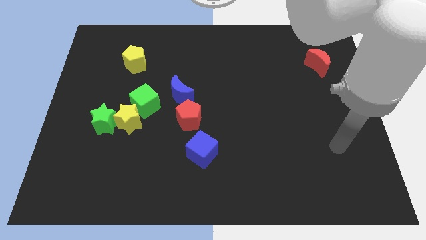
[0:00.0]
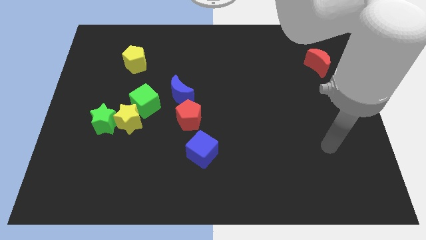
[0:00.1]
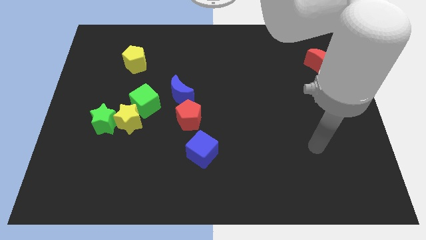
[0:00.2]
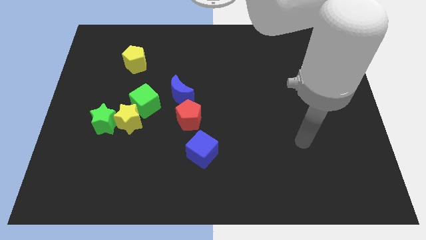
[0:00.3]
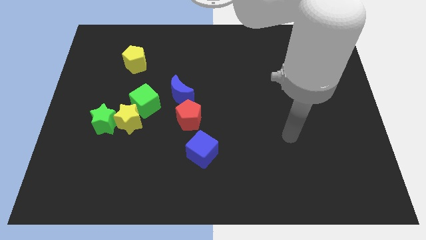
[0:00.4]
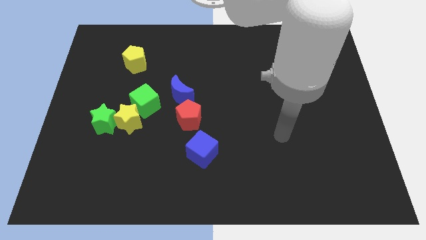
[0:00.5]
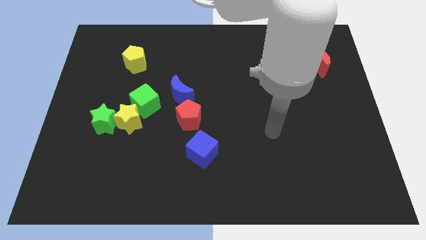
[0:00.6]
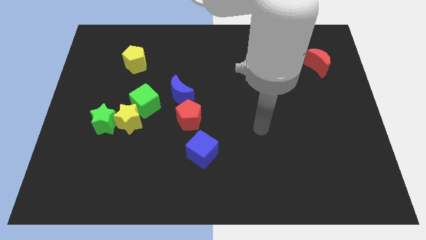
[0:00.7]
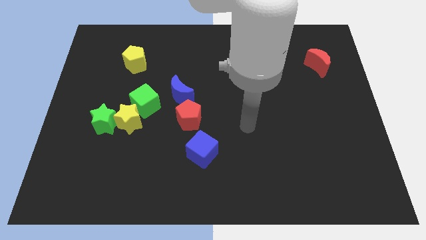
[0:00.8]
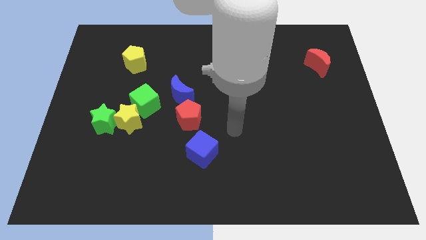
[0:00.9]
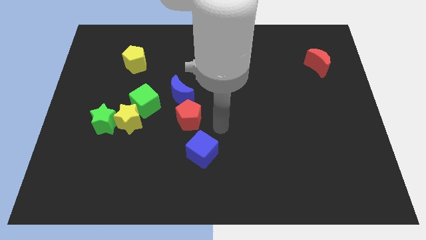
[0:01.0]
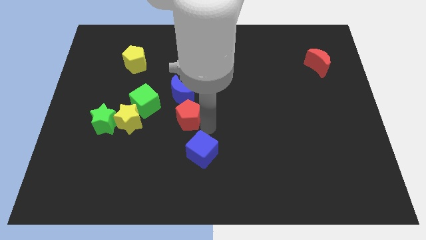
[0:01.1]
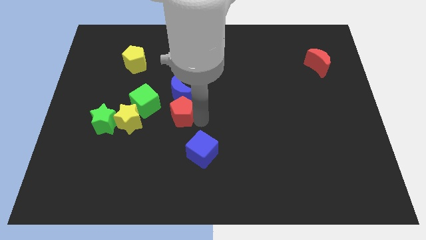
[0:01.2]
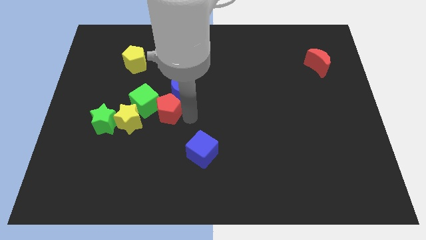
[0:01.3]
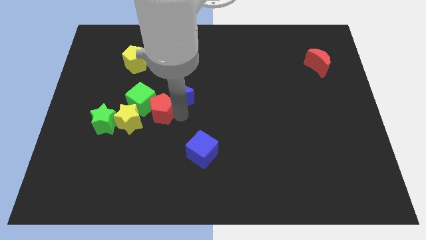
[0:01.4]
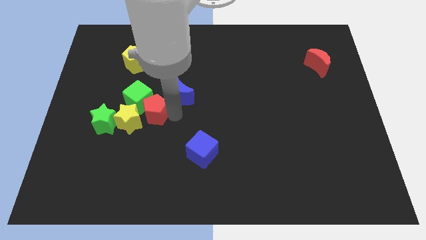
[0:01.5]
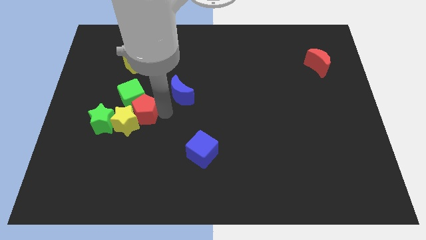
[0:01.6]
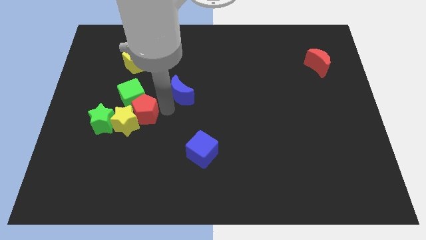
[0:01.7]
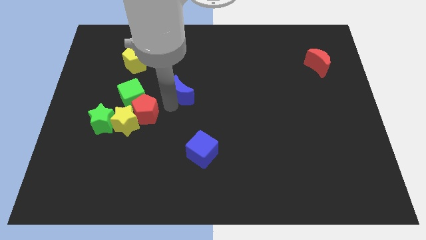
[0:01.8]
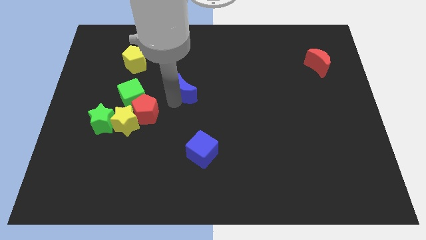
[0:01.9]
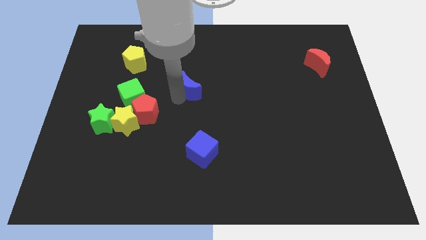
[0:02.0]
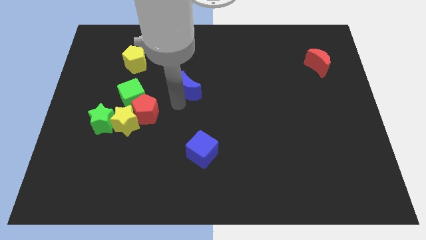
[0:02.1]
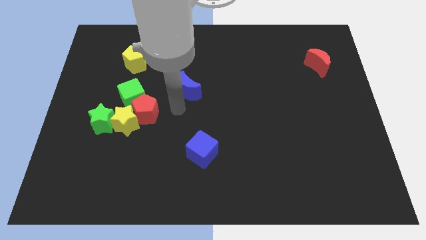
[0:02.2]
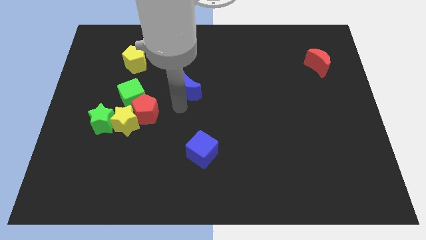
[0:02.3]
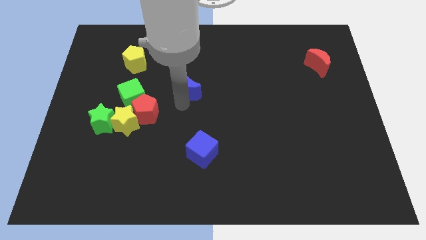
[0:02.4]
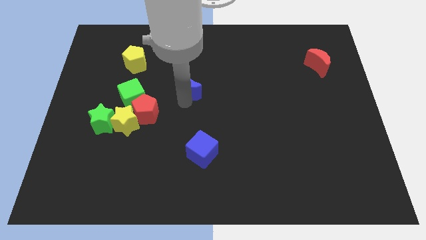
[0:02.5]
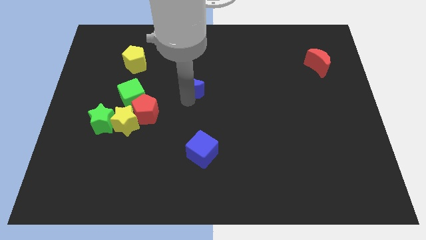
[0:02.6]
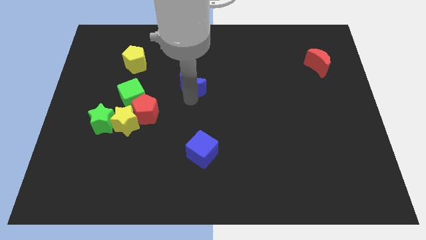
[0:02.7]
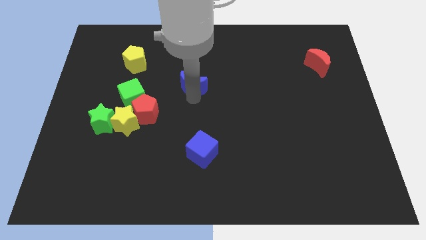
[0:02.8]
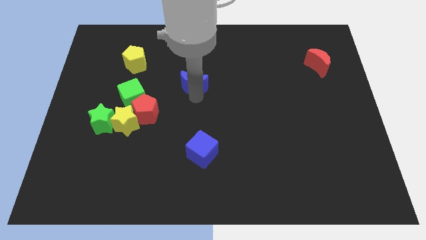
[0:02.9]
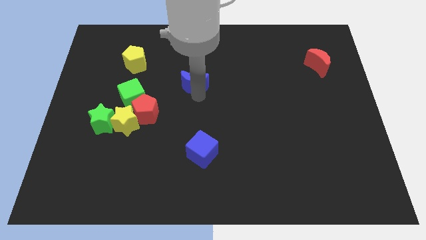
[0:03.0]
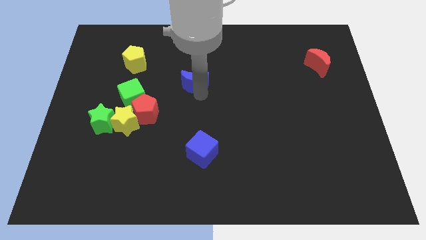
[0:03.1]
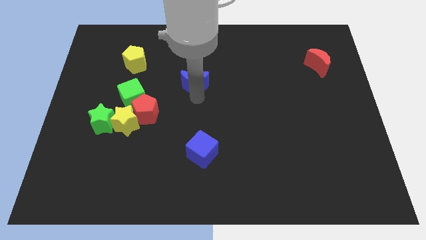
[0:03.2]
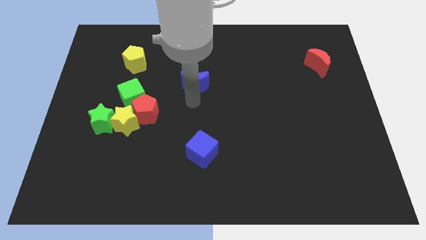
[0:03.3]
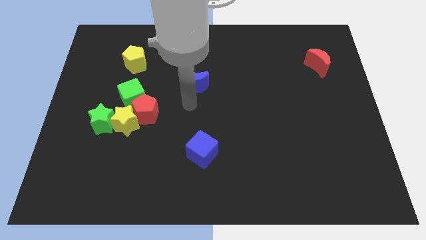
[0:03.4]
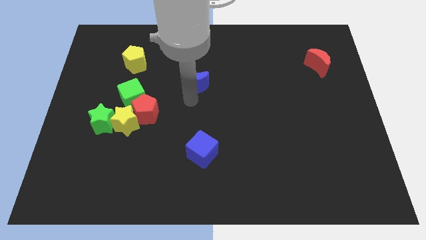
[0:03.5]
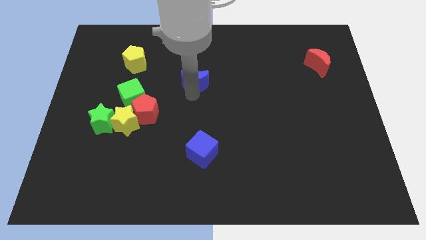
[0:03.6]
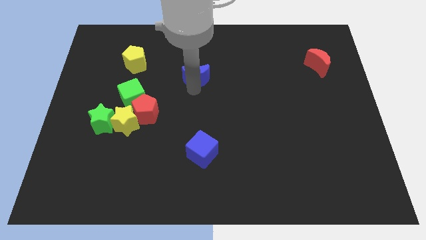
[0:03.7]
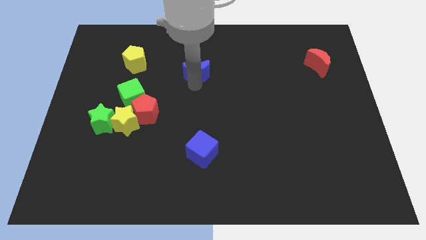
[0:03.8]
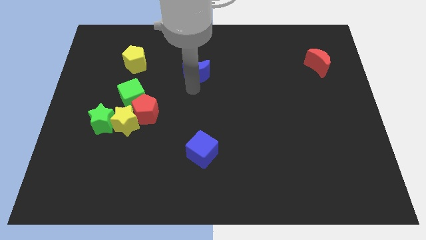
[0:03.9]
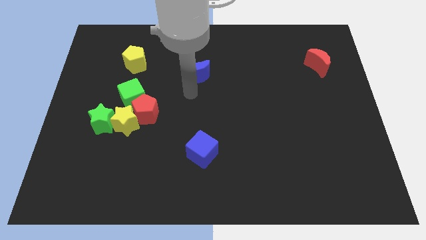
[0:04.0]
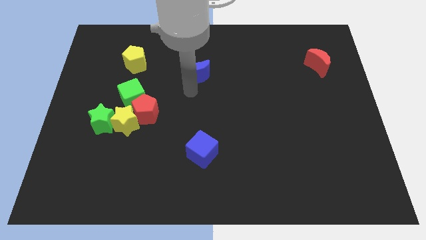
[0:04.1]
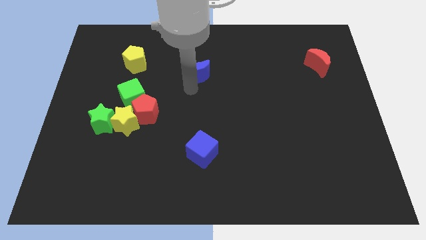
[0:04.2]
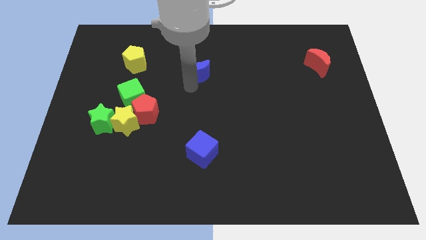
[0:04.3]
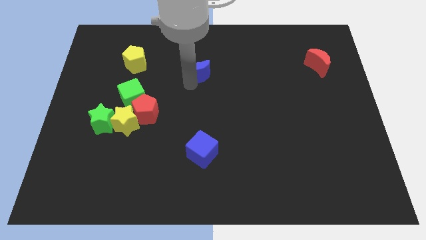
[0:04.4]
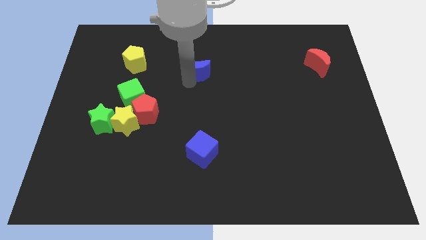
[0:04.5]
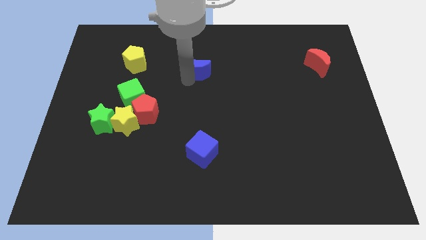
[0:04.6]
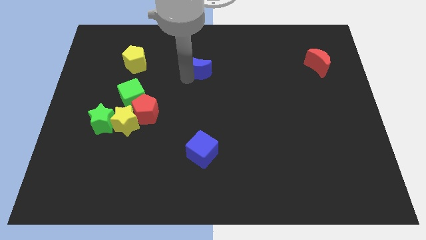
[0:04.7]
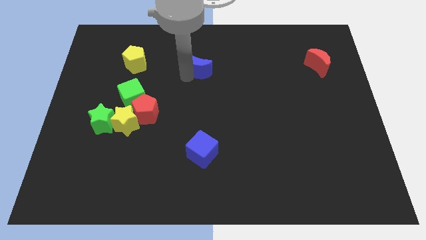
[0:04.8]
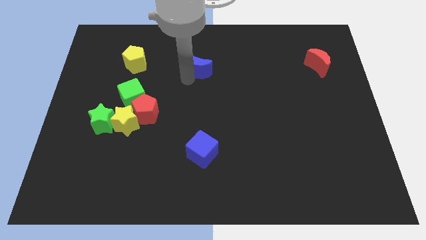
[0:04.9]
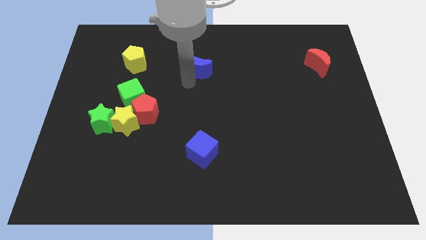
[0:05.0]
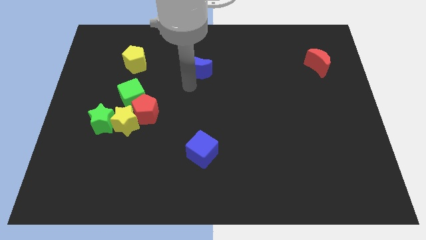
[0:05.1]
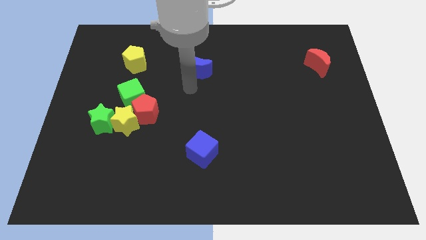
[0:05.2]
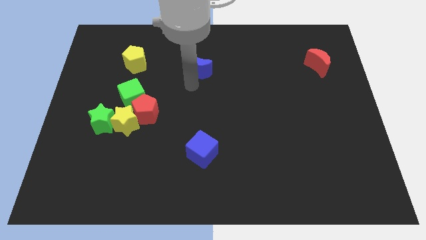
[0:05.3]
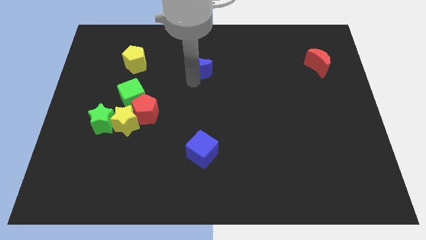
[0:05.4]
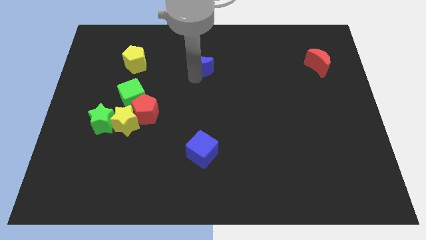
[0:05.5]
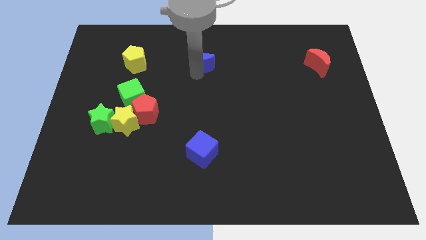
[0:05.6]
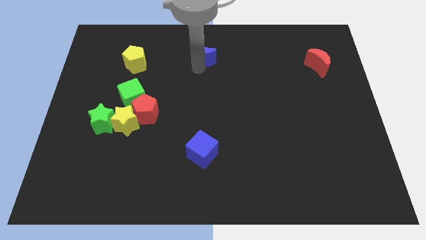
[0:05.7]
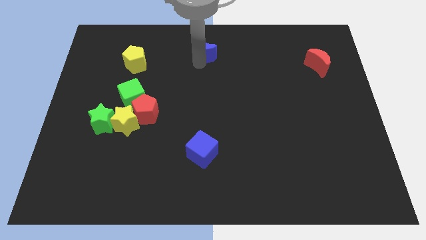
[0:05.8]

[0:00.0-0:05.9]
push the blue moon to the top
